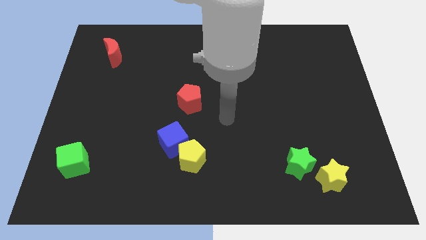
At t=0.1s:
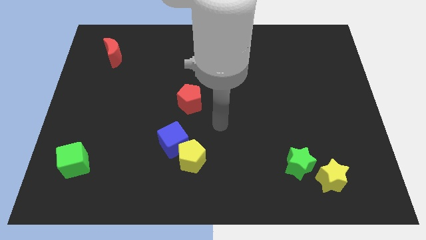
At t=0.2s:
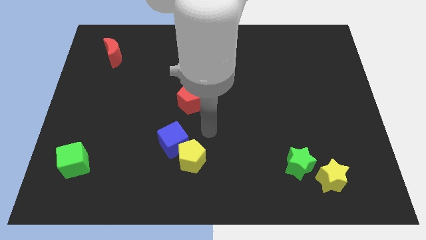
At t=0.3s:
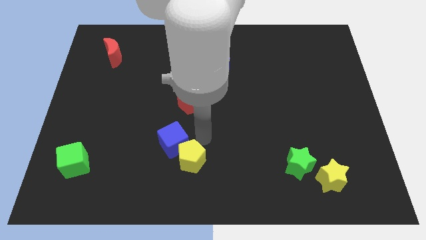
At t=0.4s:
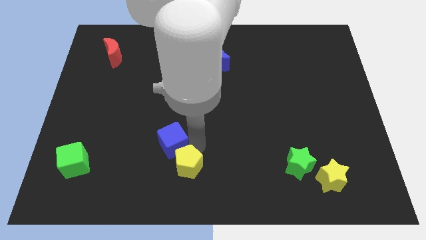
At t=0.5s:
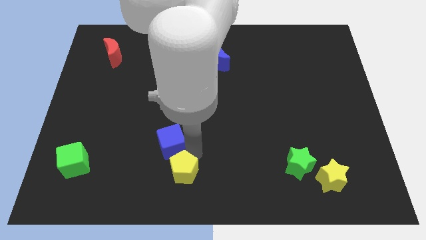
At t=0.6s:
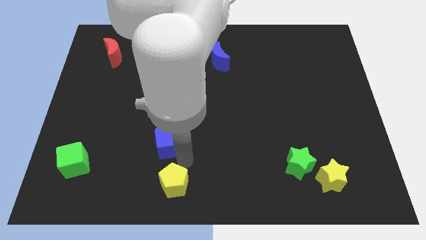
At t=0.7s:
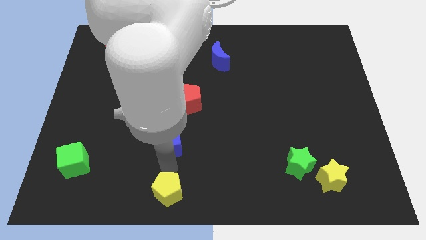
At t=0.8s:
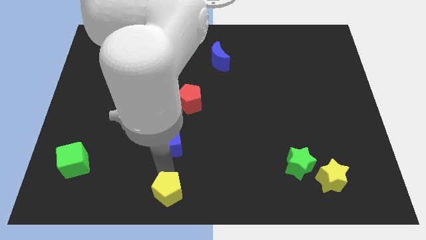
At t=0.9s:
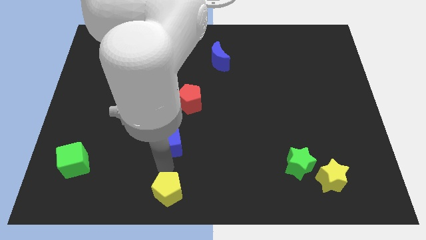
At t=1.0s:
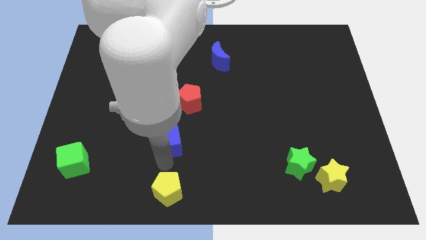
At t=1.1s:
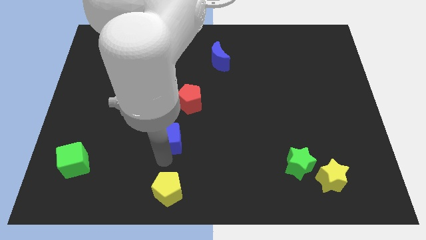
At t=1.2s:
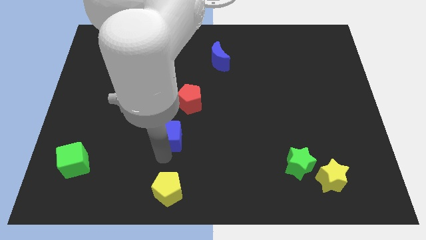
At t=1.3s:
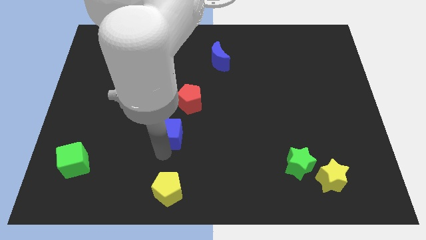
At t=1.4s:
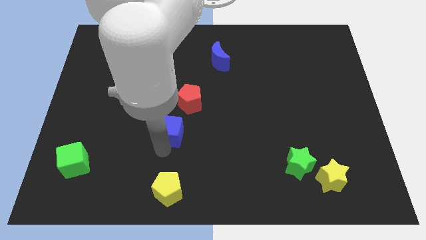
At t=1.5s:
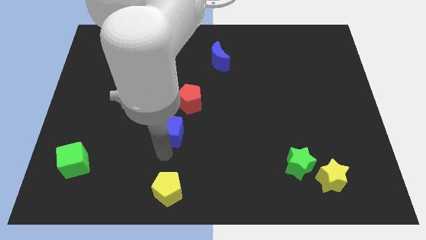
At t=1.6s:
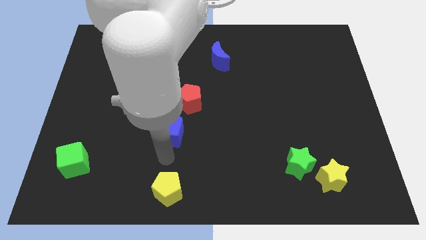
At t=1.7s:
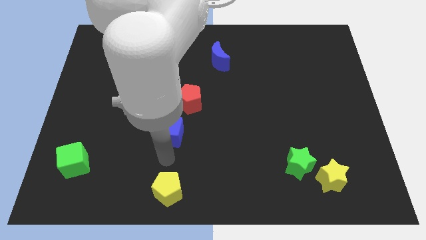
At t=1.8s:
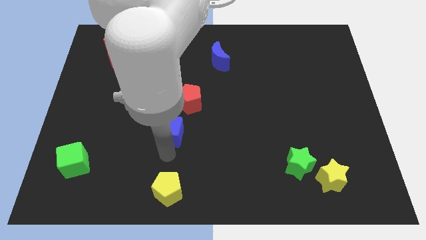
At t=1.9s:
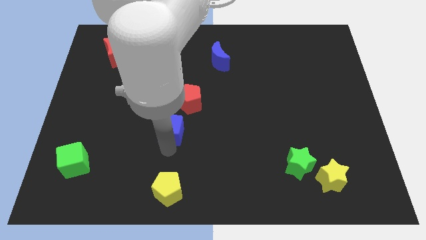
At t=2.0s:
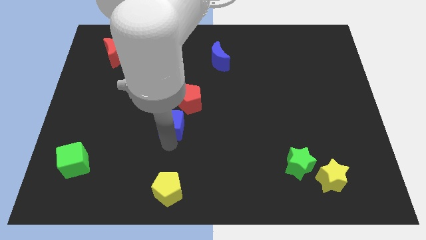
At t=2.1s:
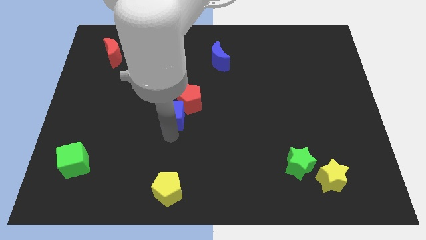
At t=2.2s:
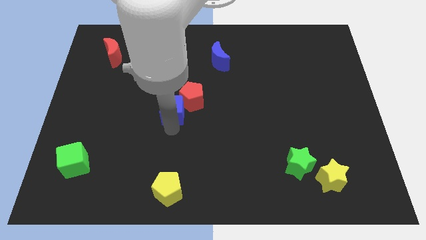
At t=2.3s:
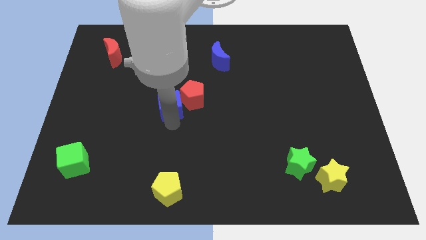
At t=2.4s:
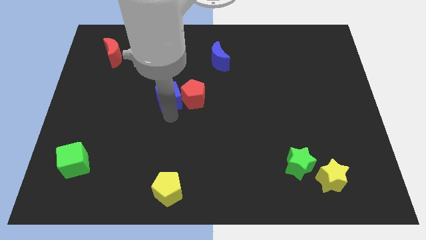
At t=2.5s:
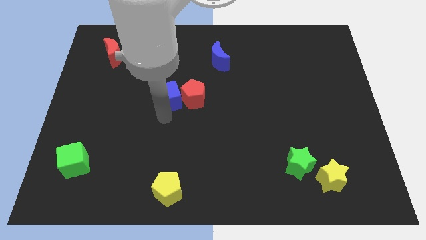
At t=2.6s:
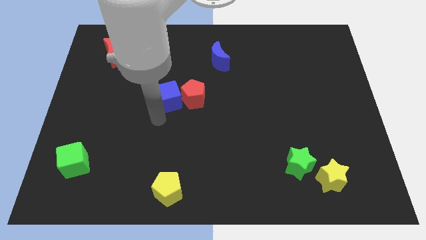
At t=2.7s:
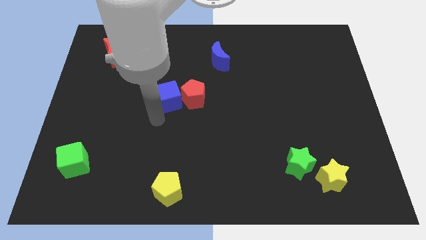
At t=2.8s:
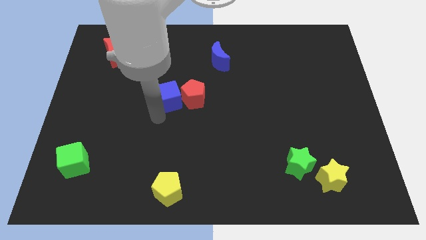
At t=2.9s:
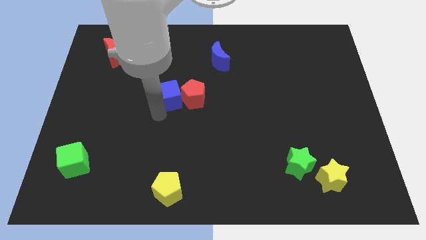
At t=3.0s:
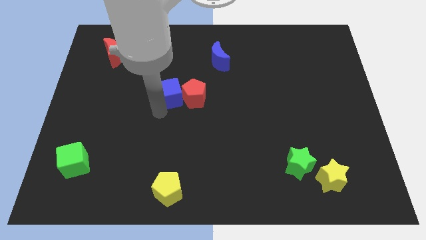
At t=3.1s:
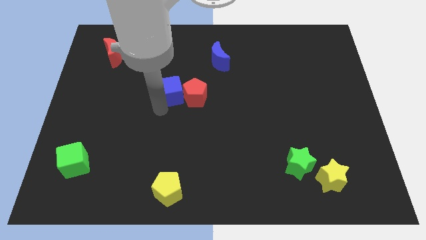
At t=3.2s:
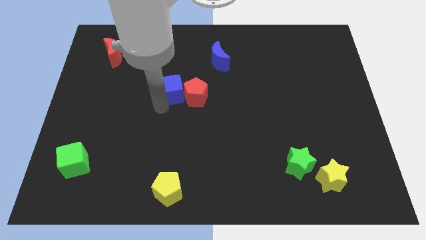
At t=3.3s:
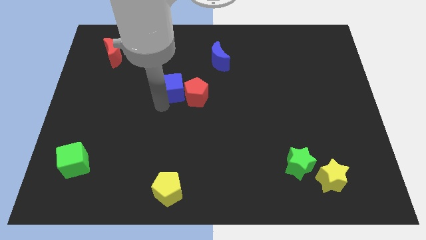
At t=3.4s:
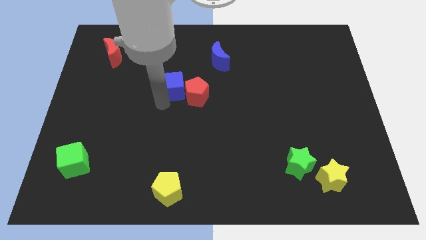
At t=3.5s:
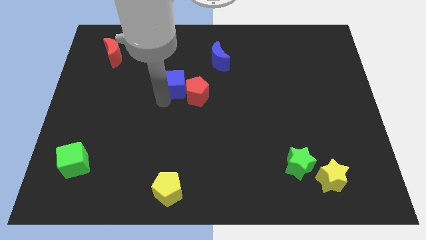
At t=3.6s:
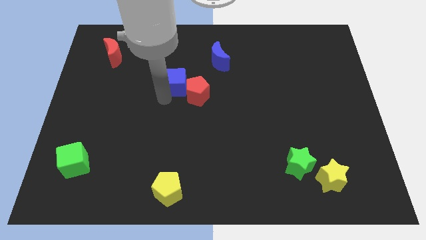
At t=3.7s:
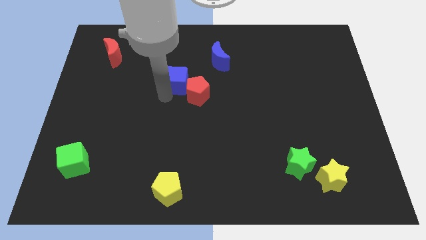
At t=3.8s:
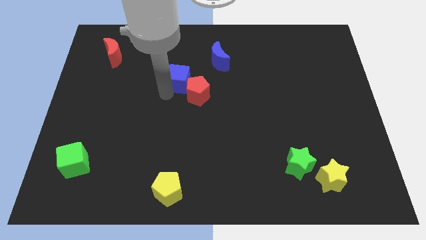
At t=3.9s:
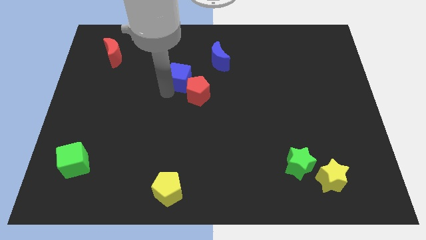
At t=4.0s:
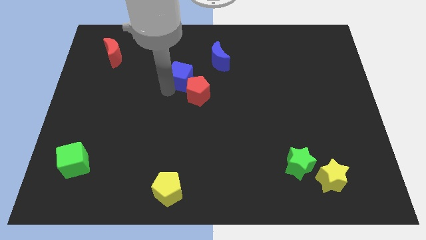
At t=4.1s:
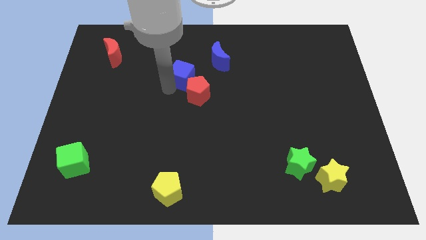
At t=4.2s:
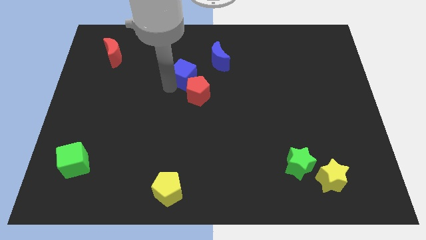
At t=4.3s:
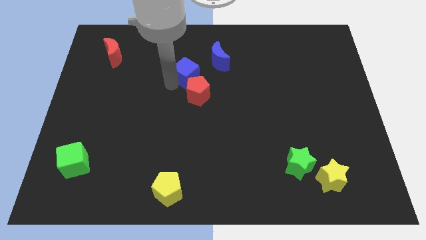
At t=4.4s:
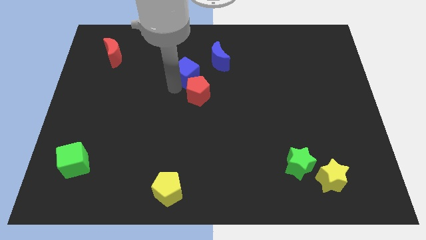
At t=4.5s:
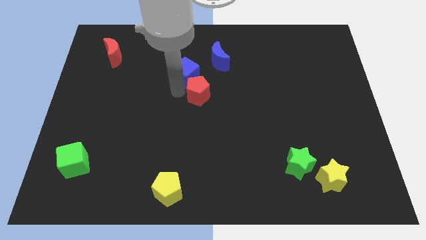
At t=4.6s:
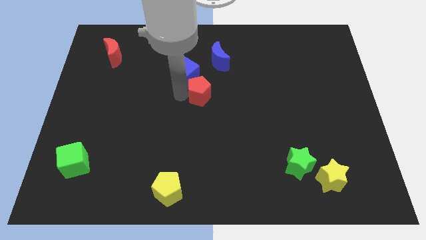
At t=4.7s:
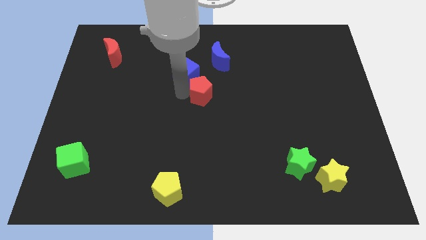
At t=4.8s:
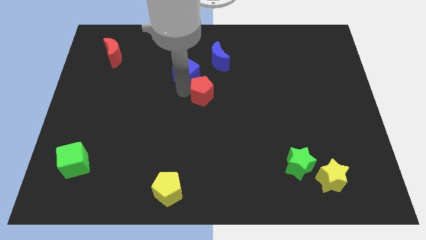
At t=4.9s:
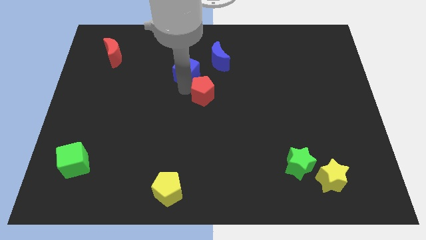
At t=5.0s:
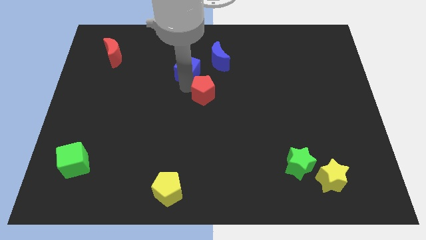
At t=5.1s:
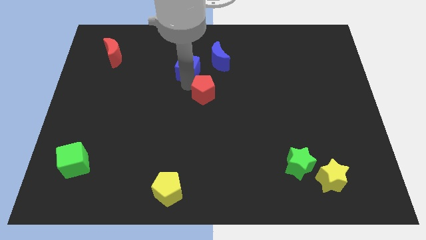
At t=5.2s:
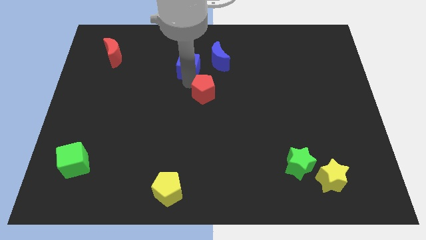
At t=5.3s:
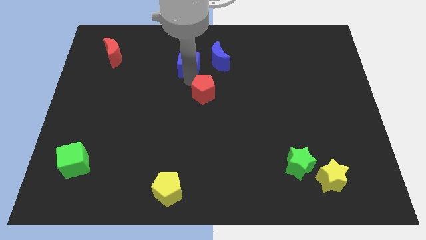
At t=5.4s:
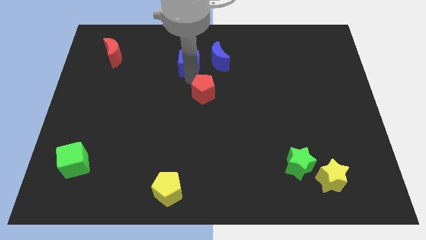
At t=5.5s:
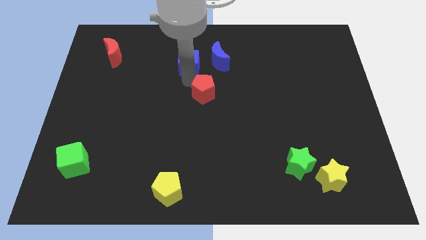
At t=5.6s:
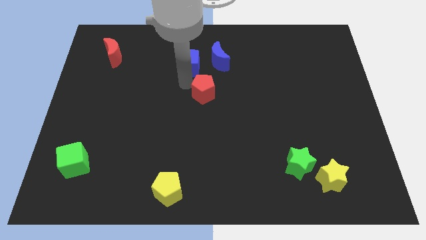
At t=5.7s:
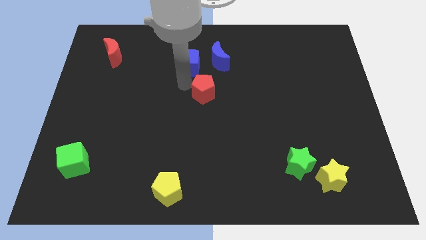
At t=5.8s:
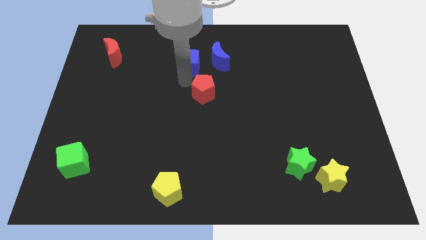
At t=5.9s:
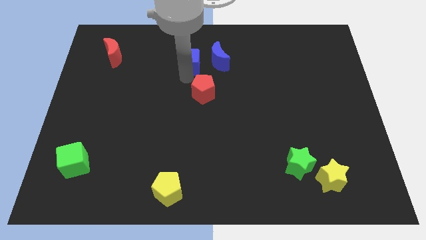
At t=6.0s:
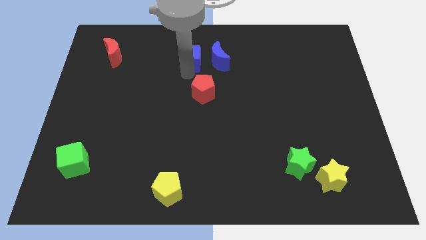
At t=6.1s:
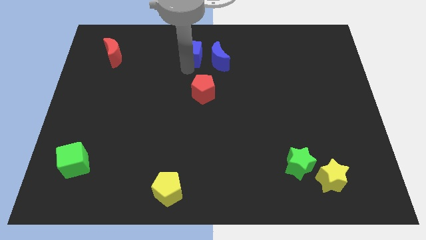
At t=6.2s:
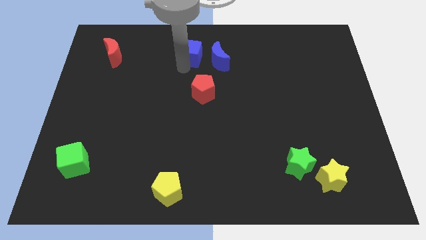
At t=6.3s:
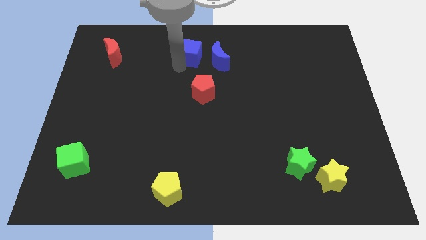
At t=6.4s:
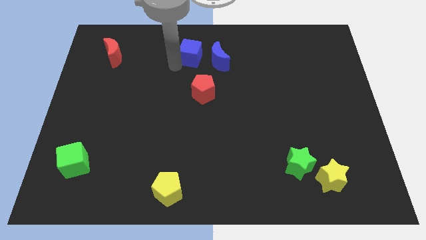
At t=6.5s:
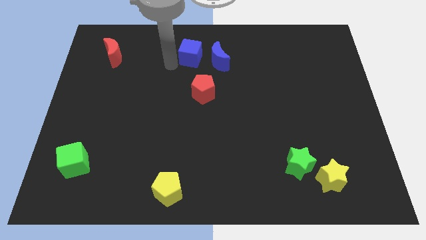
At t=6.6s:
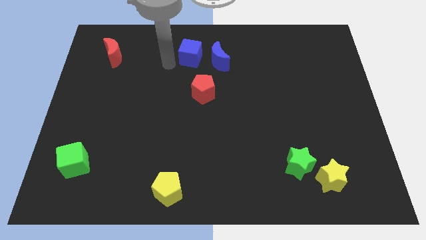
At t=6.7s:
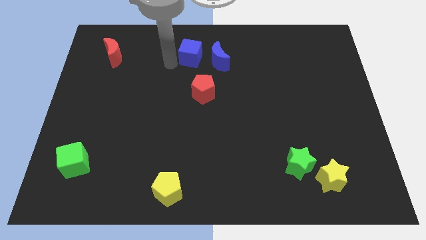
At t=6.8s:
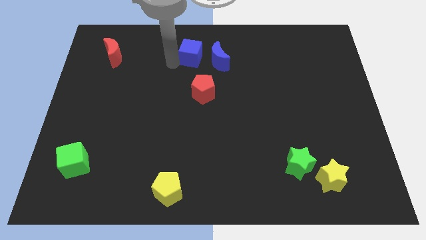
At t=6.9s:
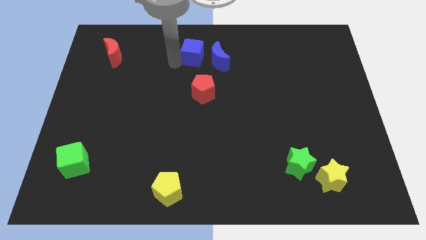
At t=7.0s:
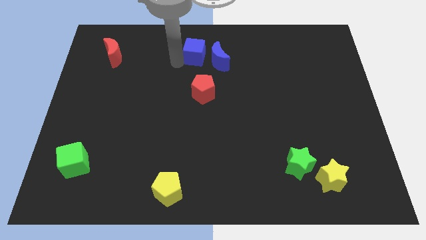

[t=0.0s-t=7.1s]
move the blue cube to the top

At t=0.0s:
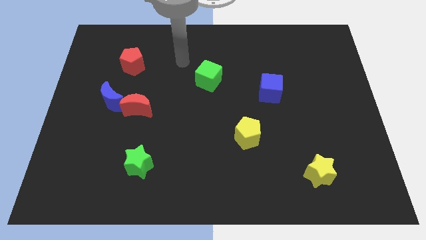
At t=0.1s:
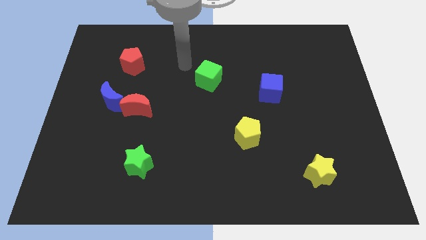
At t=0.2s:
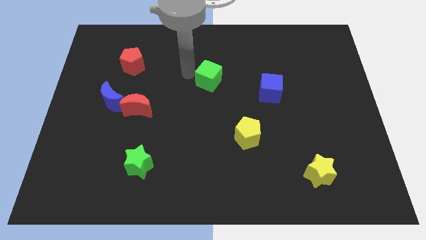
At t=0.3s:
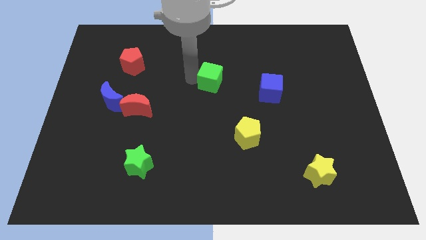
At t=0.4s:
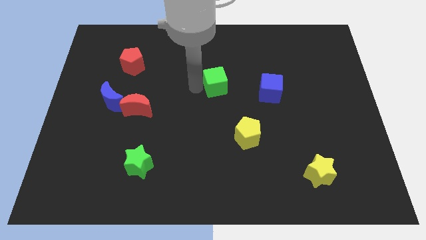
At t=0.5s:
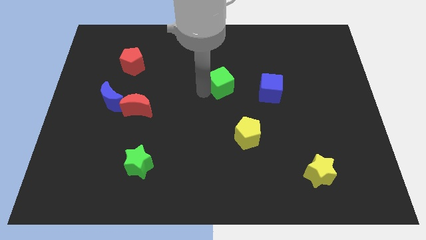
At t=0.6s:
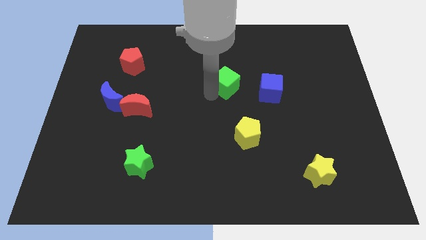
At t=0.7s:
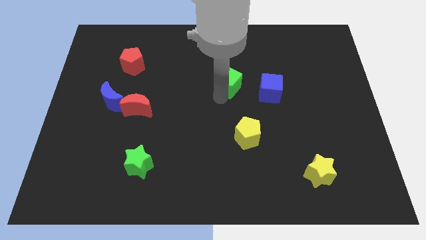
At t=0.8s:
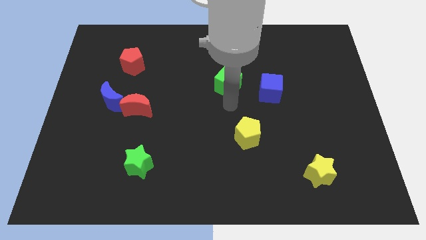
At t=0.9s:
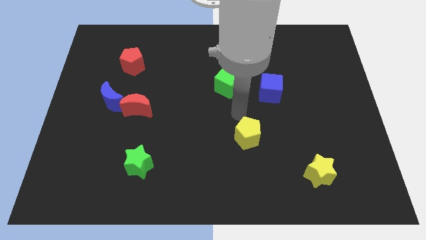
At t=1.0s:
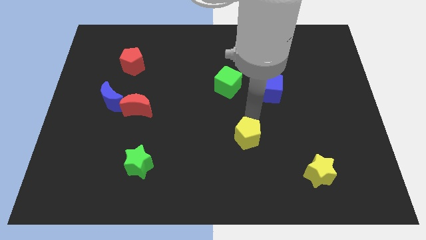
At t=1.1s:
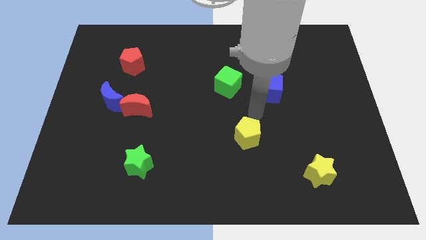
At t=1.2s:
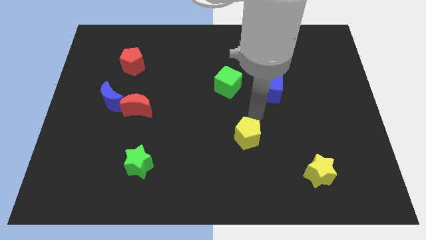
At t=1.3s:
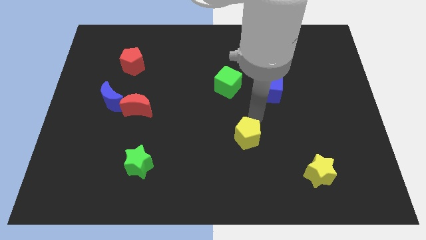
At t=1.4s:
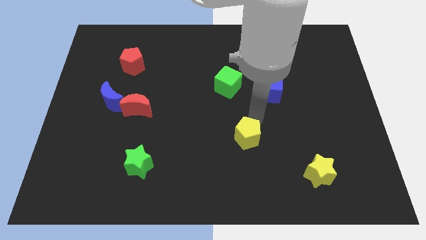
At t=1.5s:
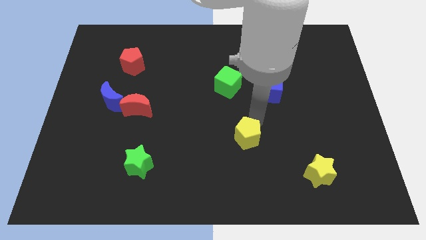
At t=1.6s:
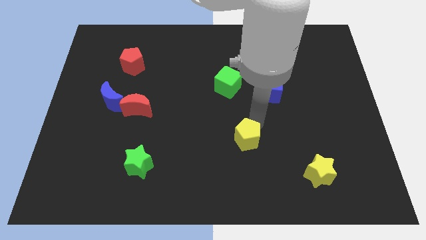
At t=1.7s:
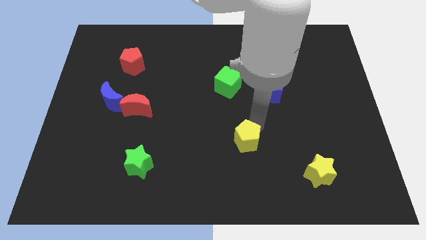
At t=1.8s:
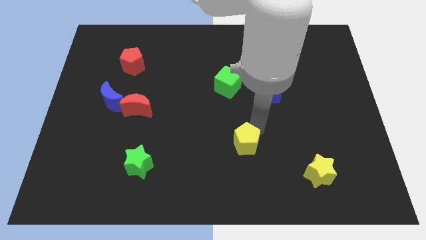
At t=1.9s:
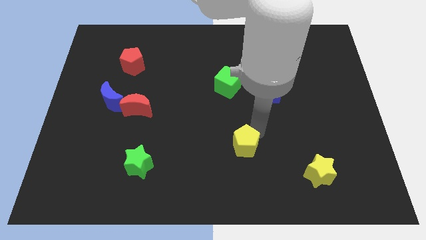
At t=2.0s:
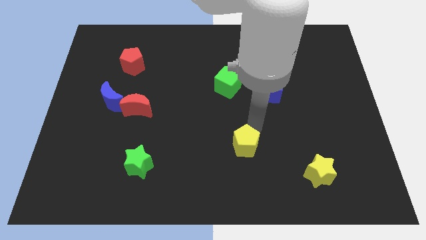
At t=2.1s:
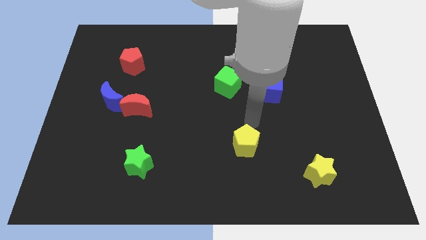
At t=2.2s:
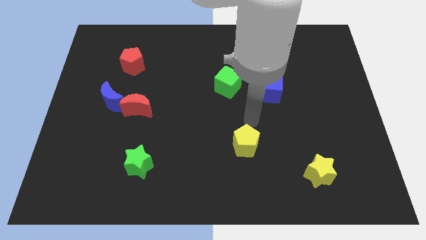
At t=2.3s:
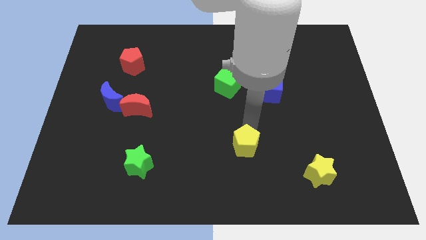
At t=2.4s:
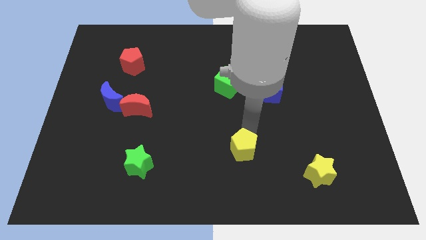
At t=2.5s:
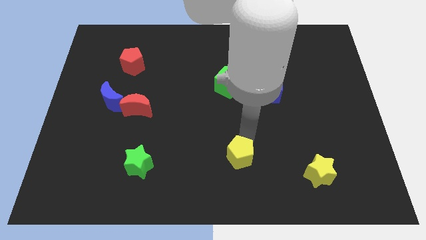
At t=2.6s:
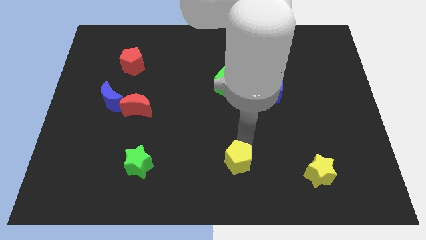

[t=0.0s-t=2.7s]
put the yellow pentagon to the bottom side
